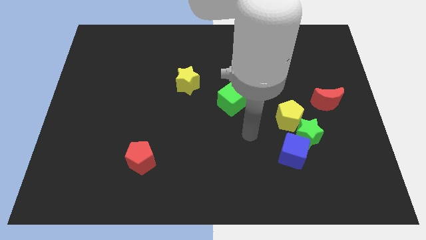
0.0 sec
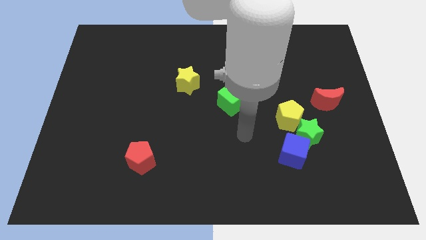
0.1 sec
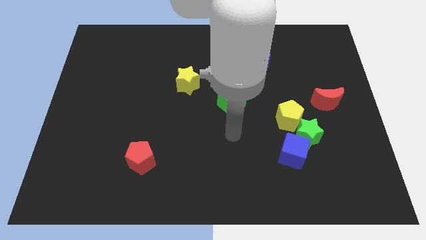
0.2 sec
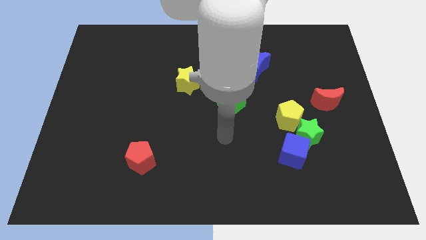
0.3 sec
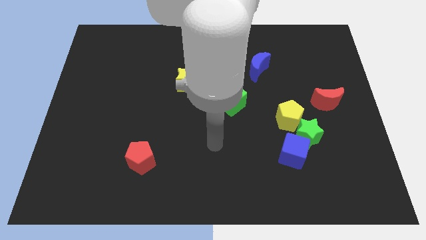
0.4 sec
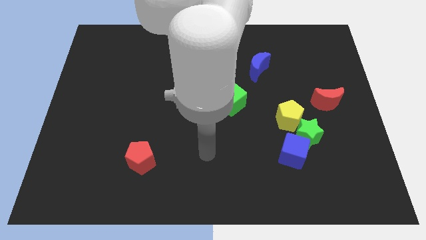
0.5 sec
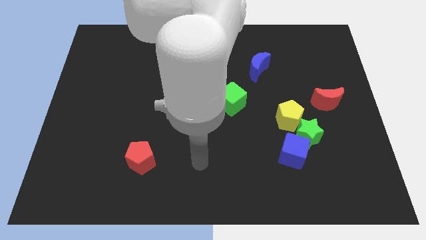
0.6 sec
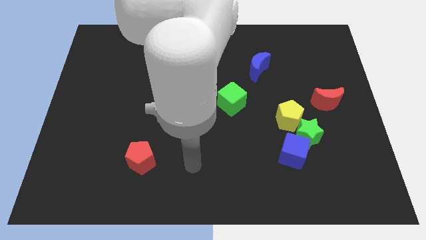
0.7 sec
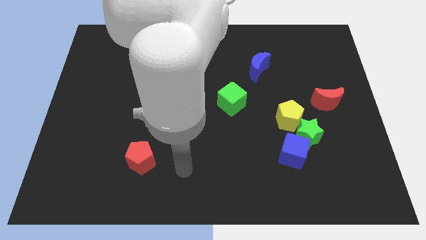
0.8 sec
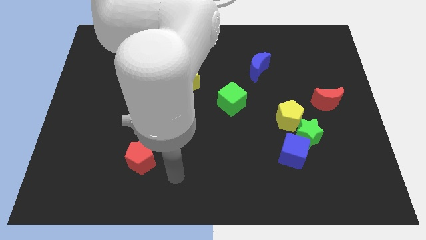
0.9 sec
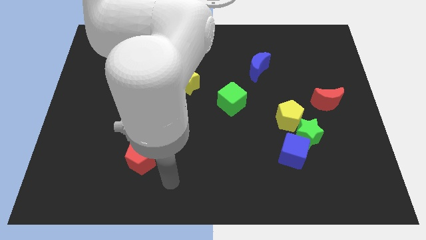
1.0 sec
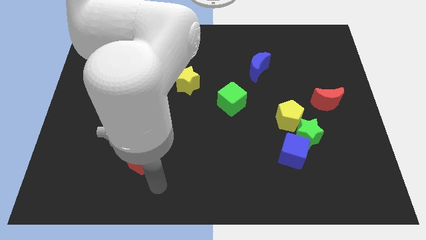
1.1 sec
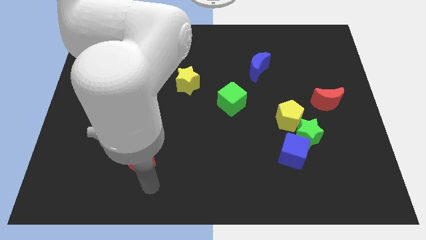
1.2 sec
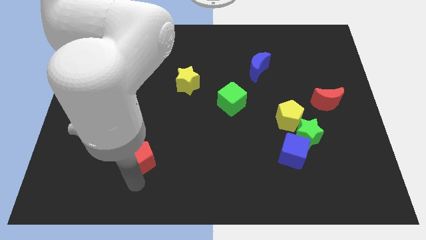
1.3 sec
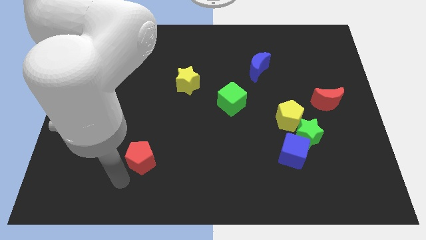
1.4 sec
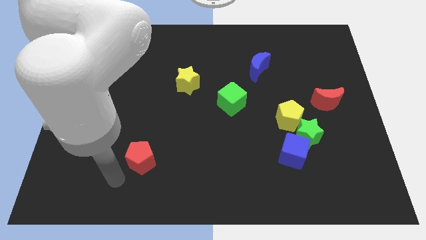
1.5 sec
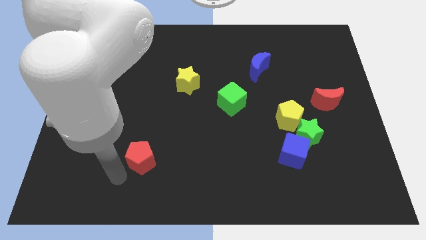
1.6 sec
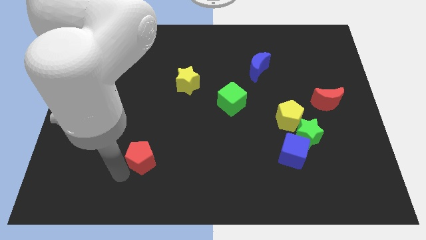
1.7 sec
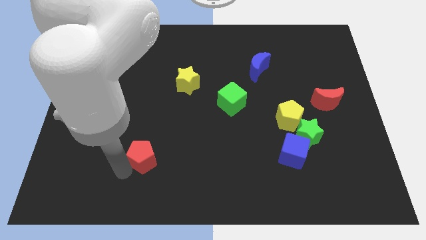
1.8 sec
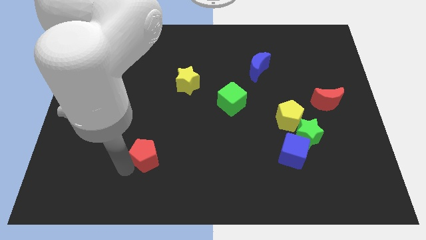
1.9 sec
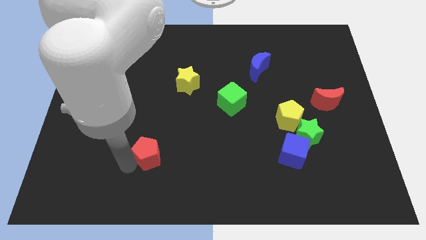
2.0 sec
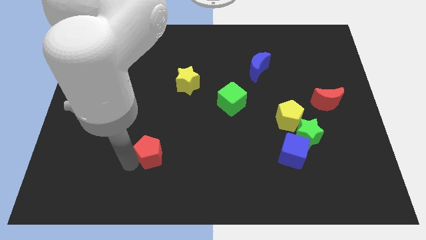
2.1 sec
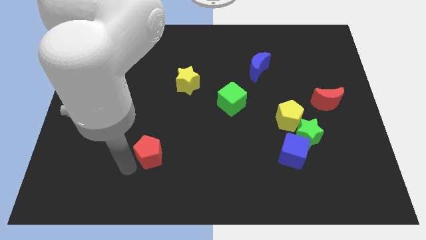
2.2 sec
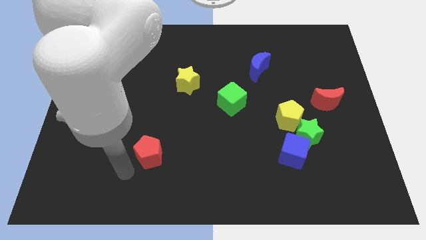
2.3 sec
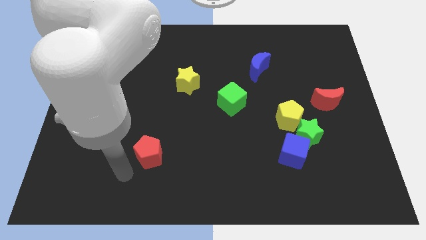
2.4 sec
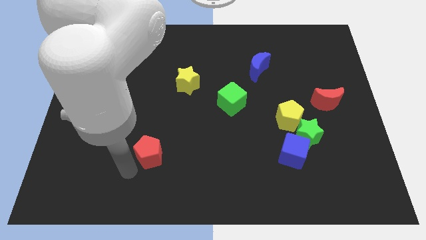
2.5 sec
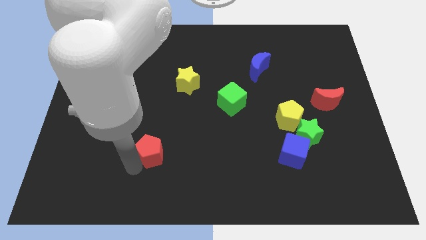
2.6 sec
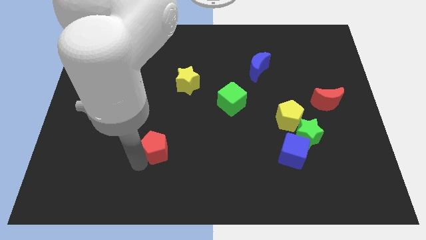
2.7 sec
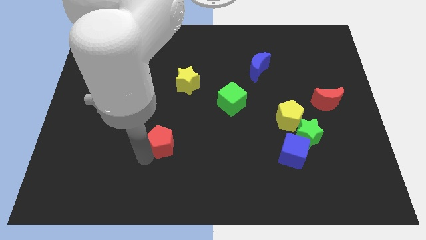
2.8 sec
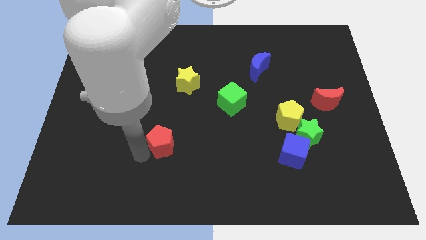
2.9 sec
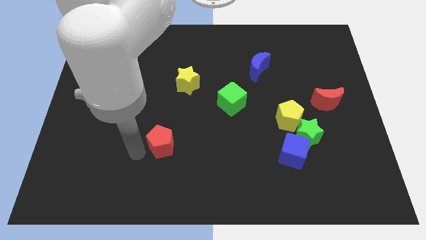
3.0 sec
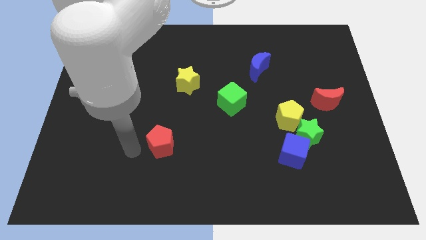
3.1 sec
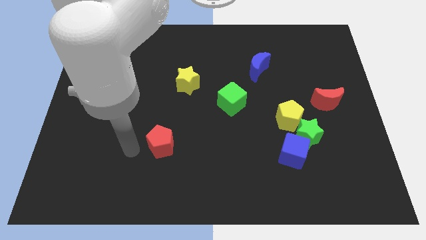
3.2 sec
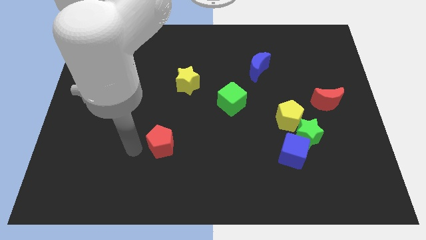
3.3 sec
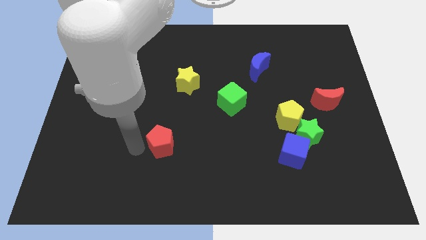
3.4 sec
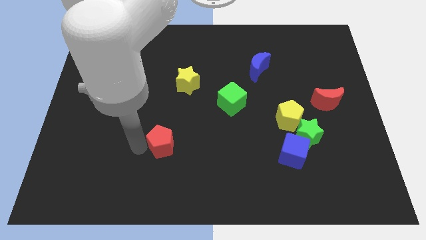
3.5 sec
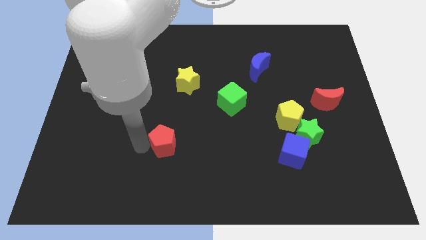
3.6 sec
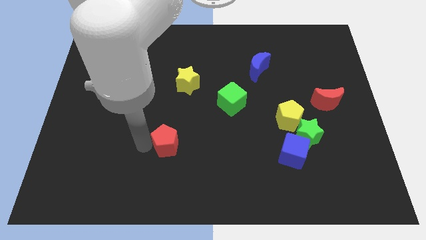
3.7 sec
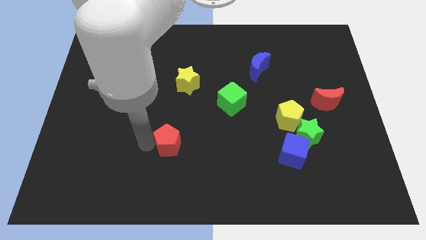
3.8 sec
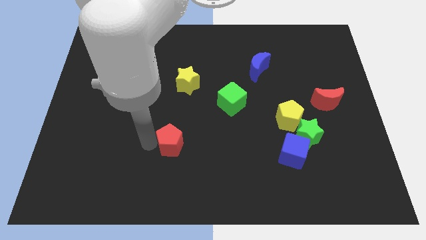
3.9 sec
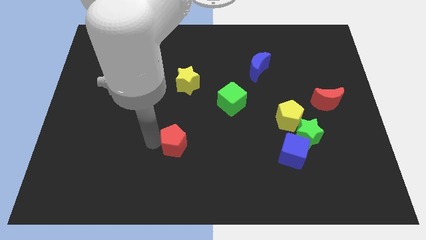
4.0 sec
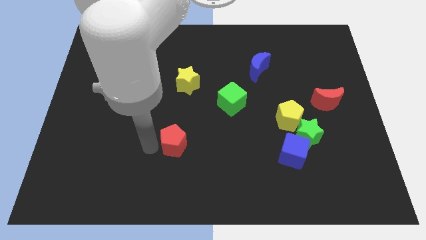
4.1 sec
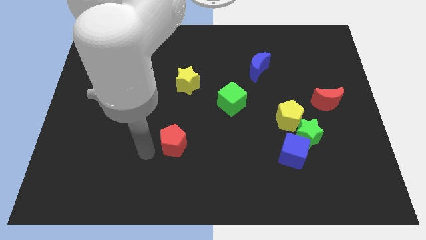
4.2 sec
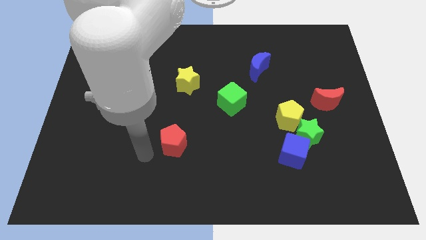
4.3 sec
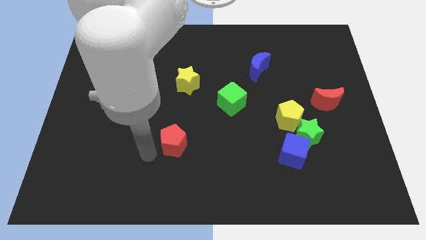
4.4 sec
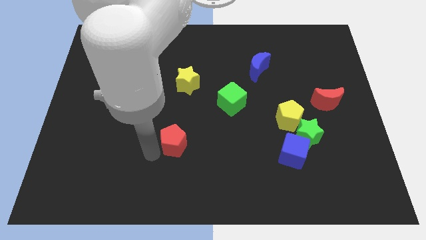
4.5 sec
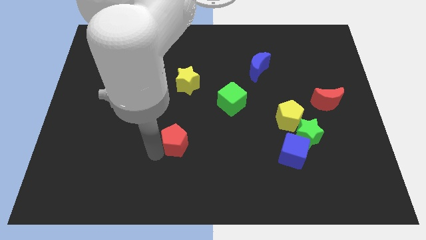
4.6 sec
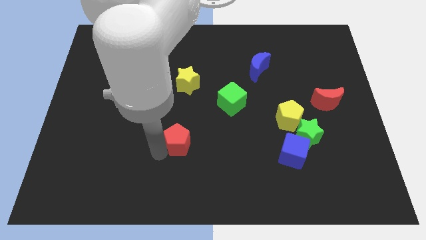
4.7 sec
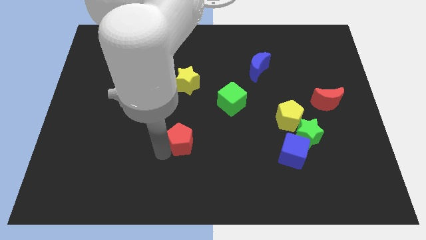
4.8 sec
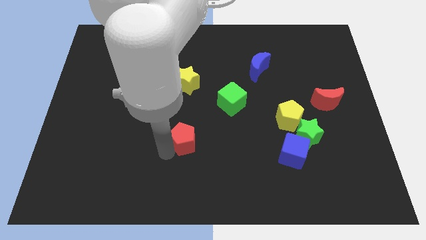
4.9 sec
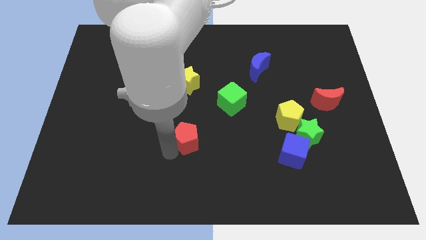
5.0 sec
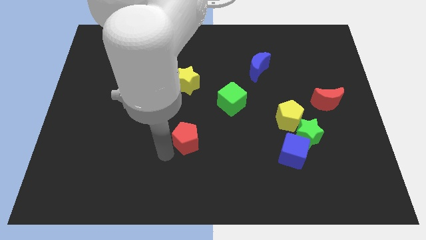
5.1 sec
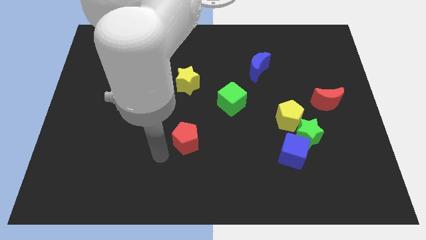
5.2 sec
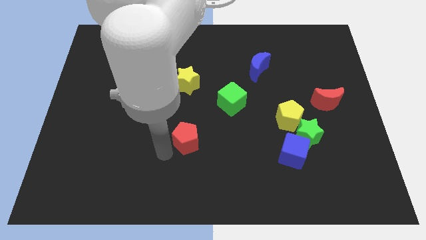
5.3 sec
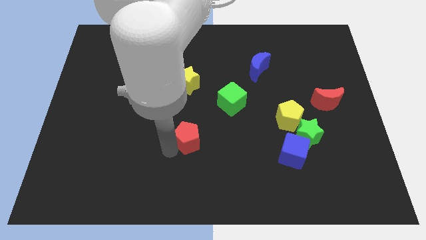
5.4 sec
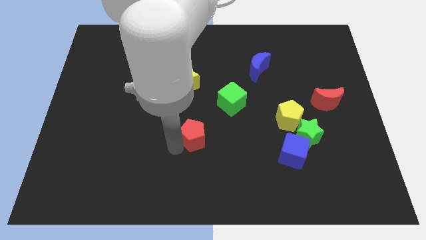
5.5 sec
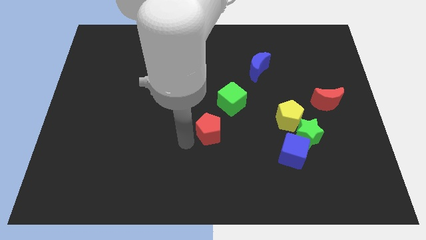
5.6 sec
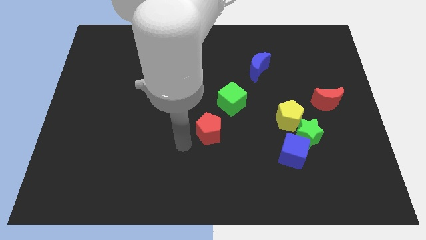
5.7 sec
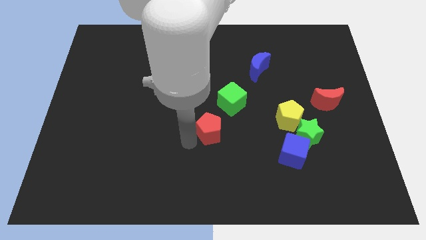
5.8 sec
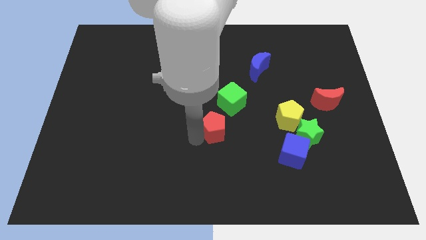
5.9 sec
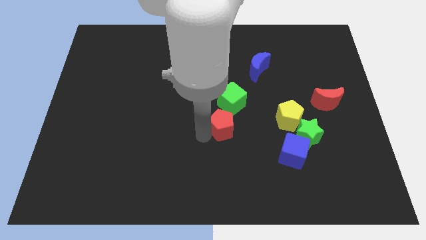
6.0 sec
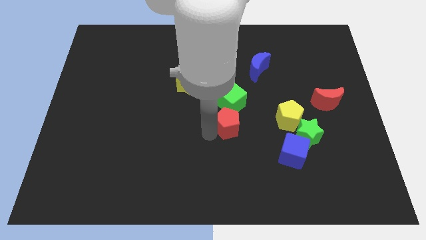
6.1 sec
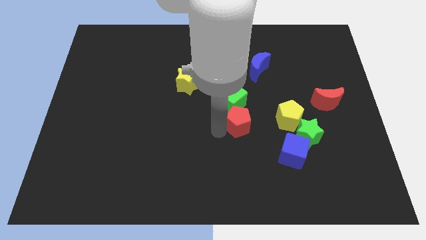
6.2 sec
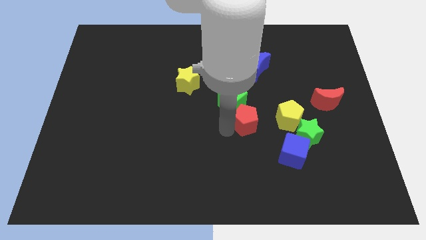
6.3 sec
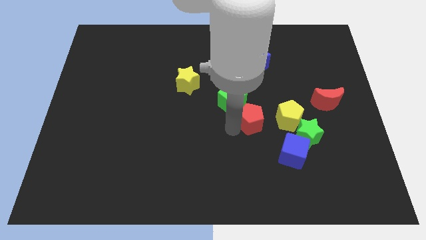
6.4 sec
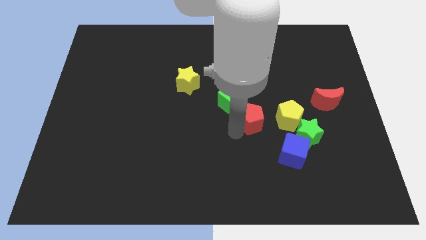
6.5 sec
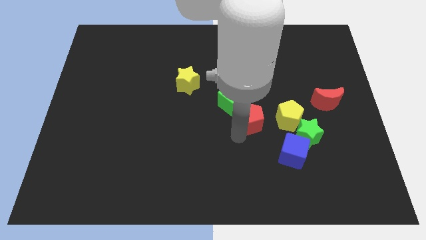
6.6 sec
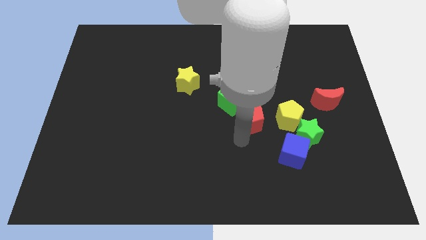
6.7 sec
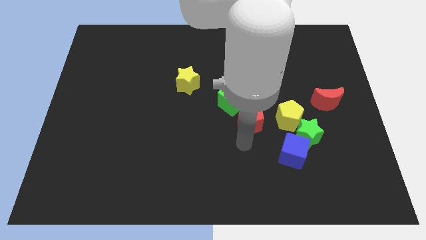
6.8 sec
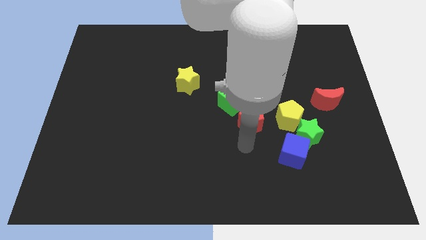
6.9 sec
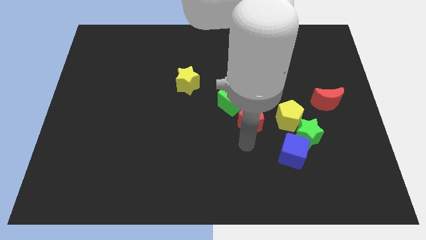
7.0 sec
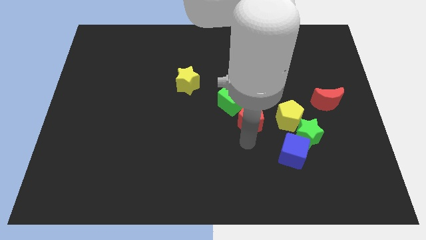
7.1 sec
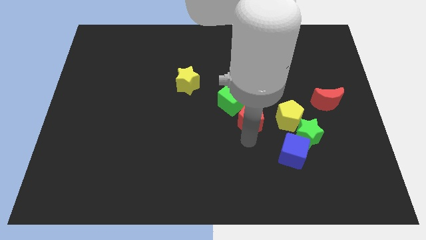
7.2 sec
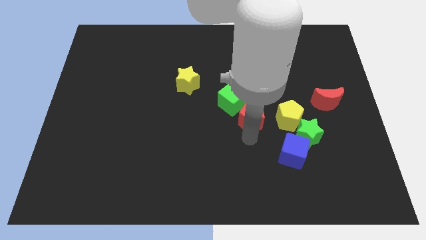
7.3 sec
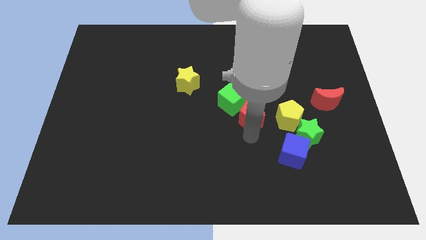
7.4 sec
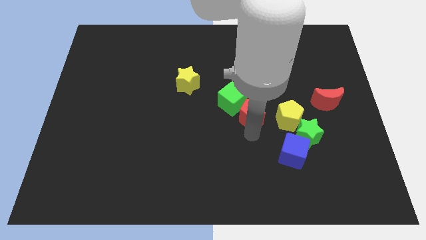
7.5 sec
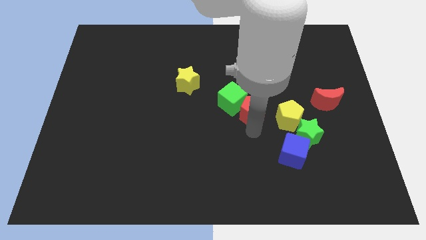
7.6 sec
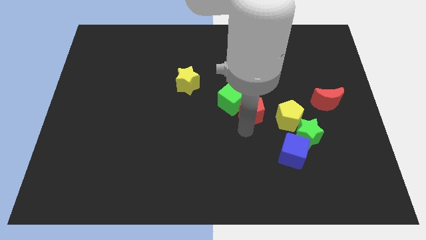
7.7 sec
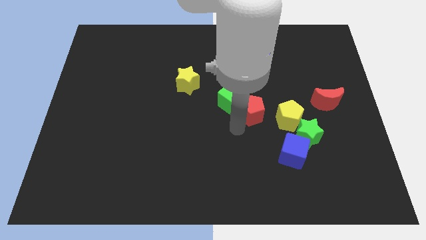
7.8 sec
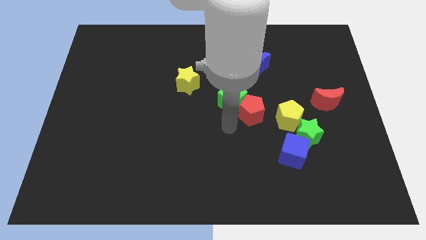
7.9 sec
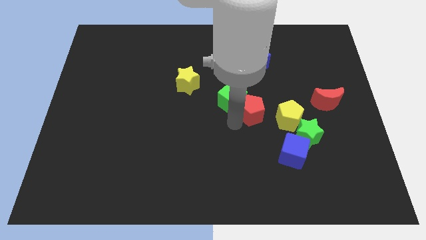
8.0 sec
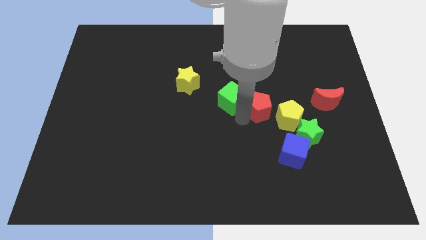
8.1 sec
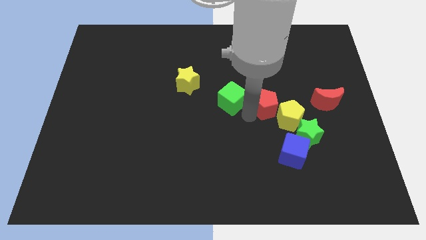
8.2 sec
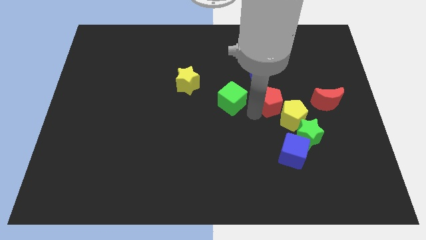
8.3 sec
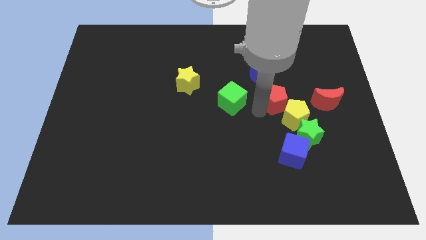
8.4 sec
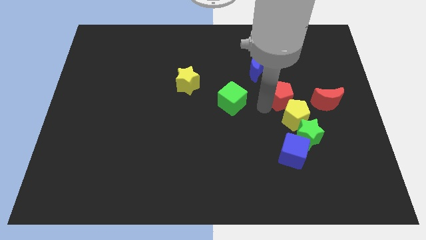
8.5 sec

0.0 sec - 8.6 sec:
slide the red pentagon above the green star
